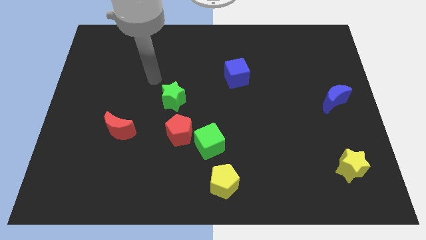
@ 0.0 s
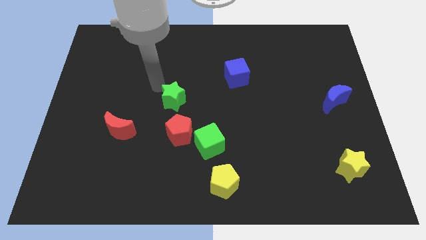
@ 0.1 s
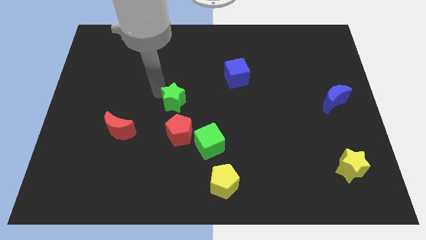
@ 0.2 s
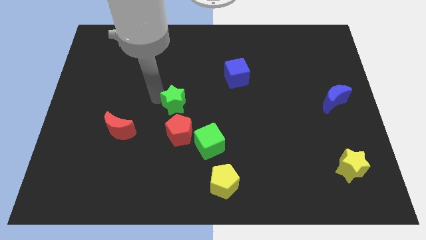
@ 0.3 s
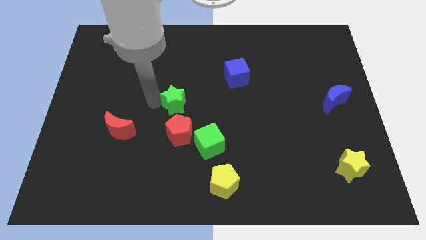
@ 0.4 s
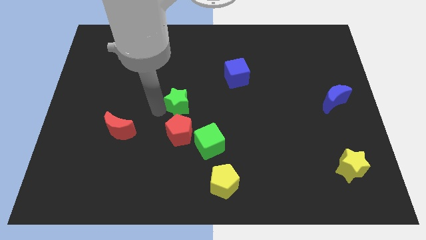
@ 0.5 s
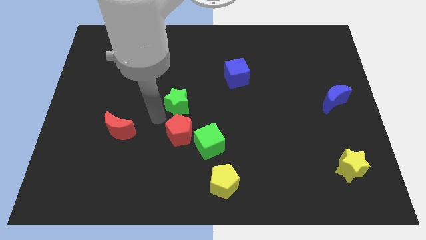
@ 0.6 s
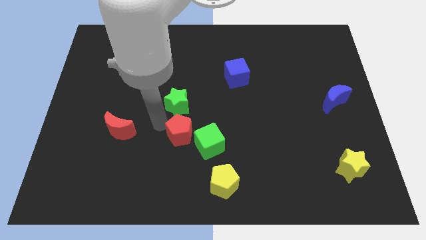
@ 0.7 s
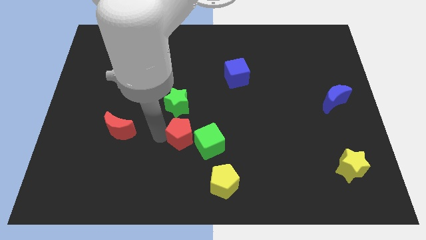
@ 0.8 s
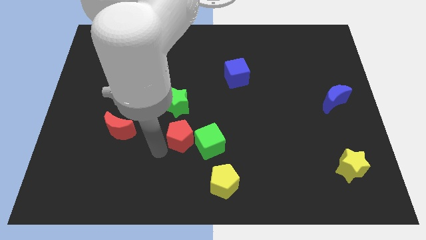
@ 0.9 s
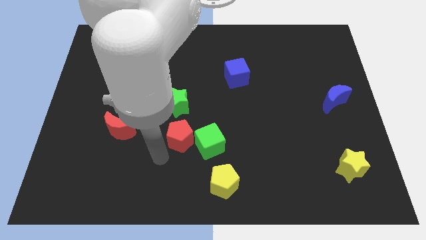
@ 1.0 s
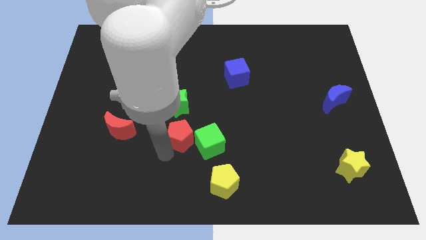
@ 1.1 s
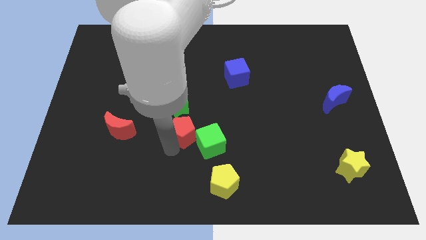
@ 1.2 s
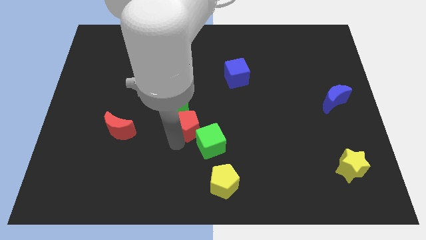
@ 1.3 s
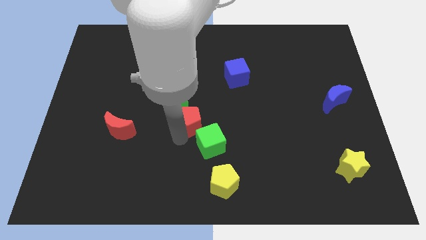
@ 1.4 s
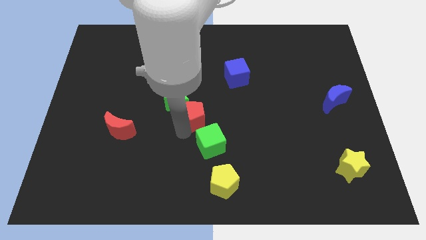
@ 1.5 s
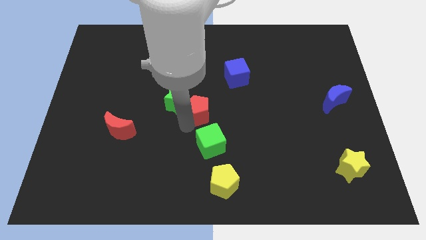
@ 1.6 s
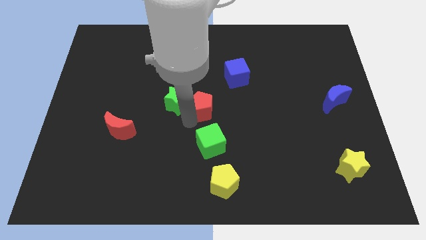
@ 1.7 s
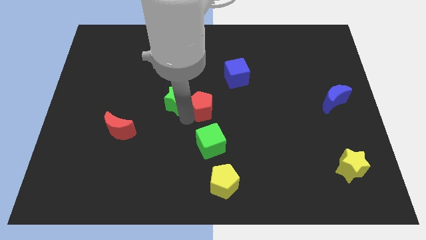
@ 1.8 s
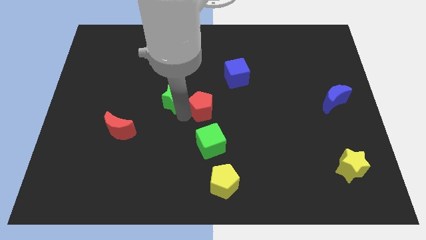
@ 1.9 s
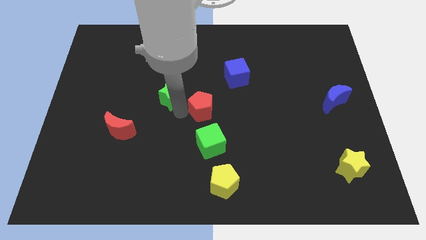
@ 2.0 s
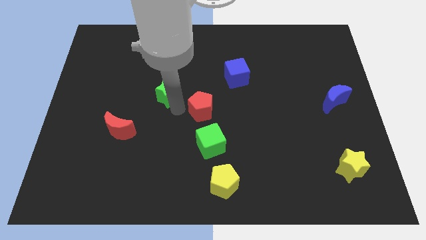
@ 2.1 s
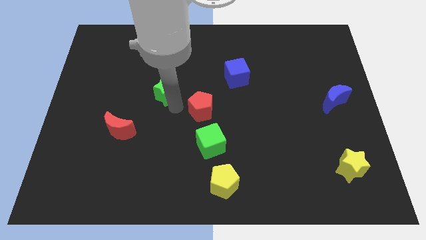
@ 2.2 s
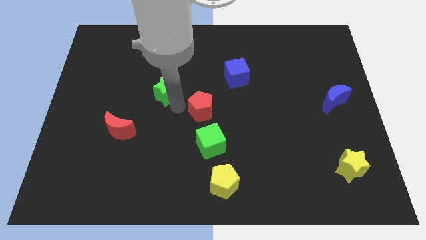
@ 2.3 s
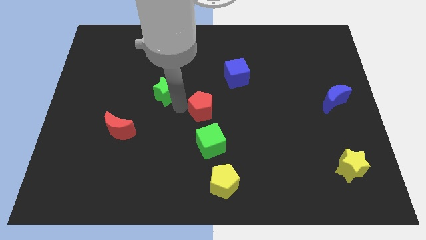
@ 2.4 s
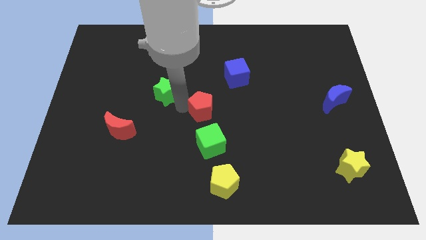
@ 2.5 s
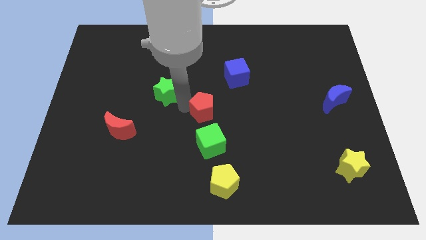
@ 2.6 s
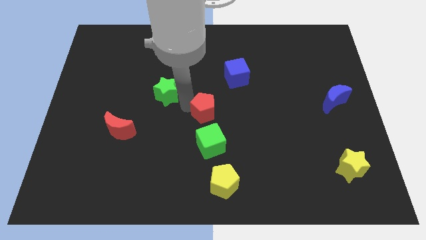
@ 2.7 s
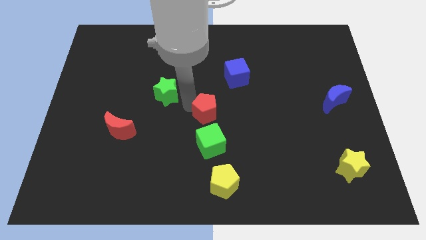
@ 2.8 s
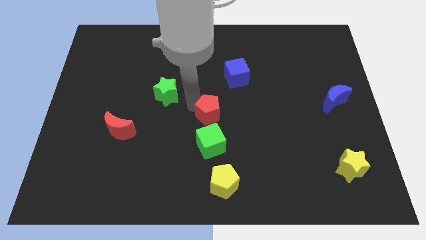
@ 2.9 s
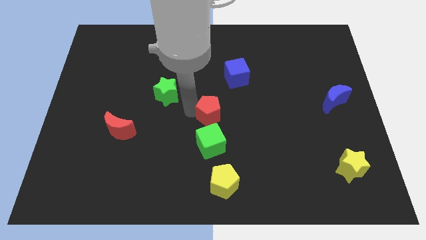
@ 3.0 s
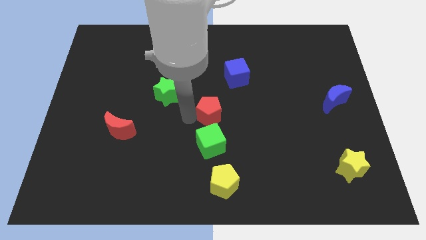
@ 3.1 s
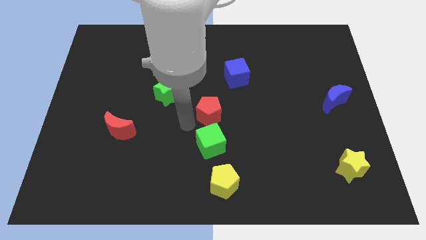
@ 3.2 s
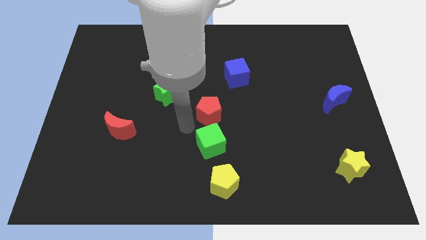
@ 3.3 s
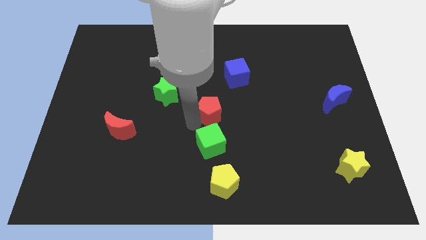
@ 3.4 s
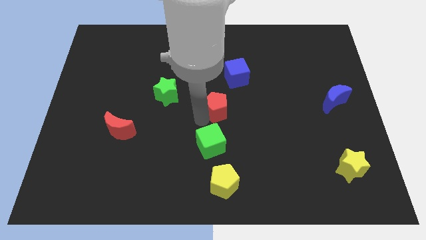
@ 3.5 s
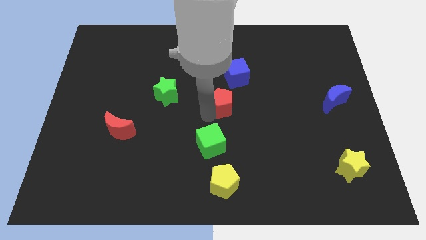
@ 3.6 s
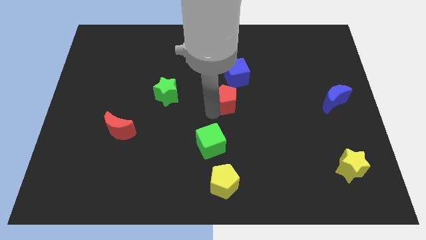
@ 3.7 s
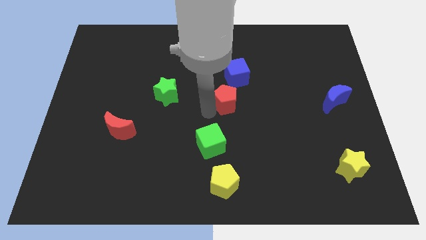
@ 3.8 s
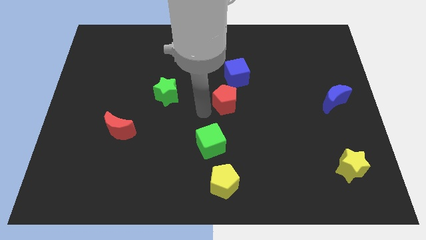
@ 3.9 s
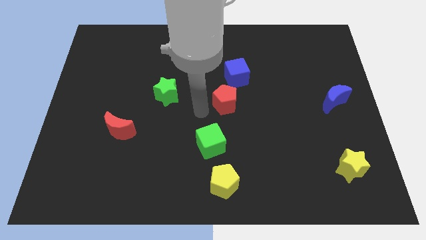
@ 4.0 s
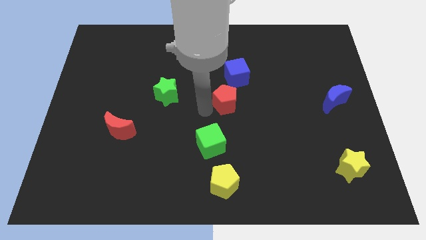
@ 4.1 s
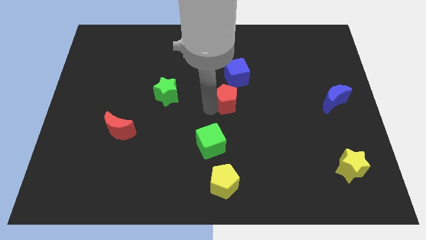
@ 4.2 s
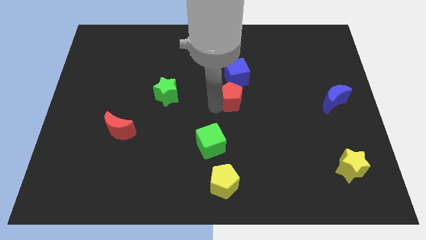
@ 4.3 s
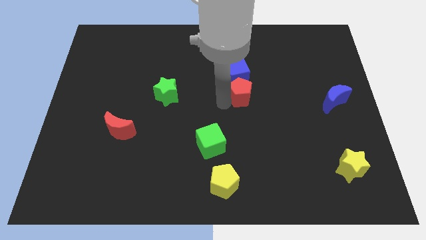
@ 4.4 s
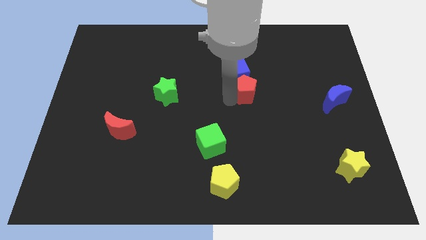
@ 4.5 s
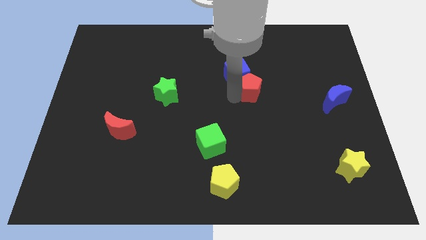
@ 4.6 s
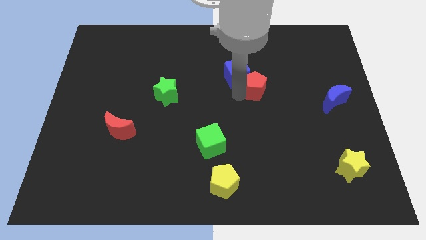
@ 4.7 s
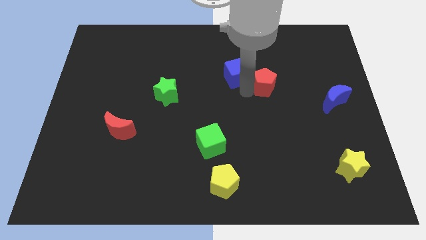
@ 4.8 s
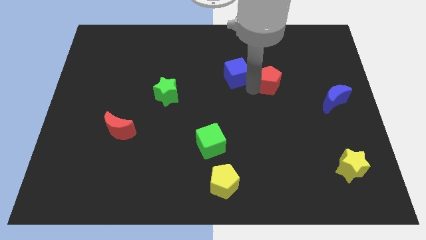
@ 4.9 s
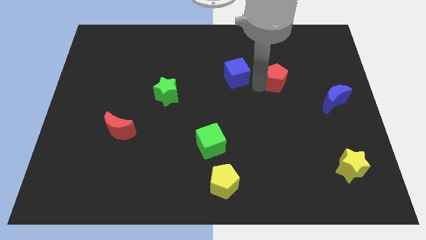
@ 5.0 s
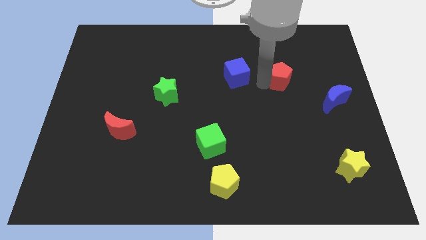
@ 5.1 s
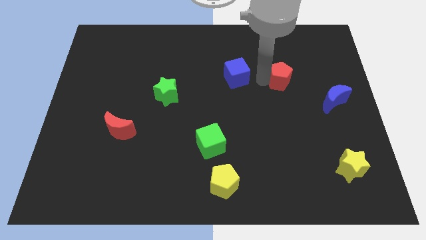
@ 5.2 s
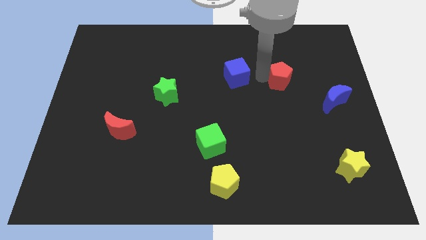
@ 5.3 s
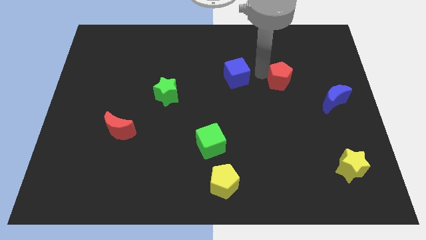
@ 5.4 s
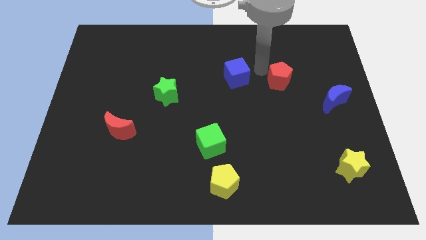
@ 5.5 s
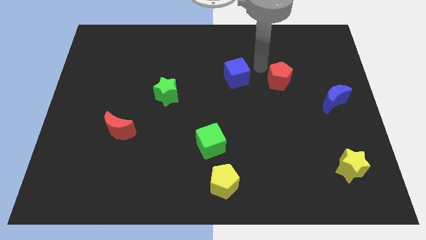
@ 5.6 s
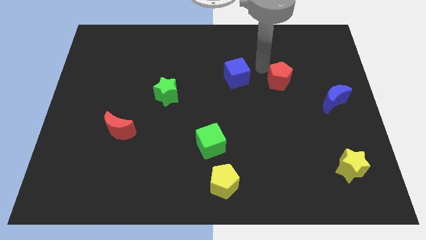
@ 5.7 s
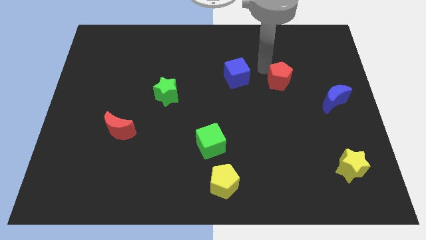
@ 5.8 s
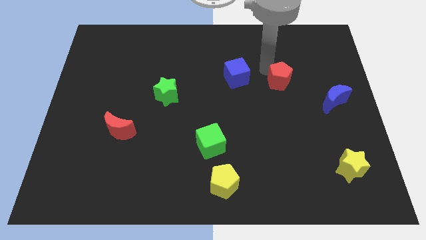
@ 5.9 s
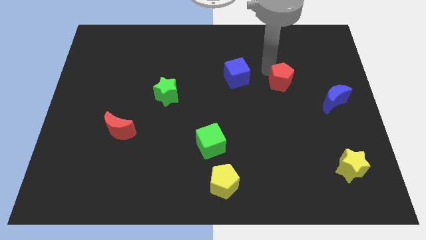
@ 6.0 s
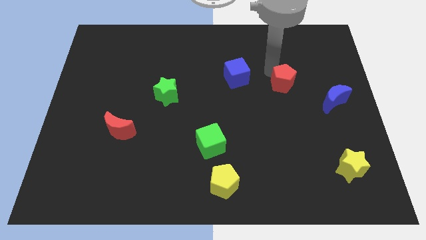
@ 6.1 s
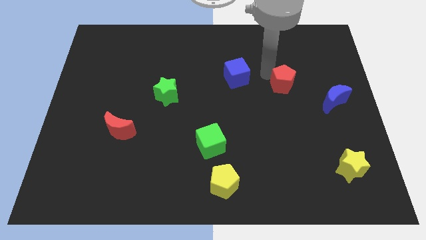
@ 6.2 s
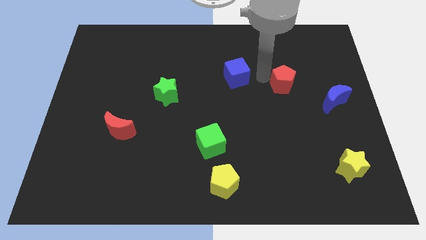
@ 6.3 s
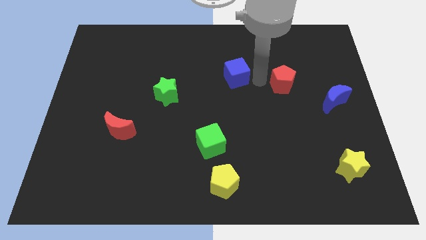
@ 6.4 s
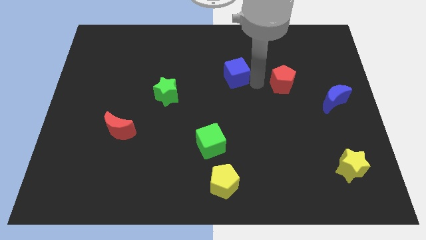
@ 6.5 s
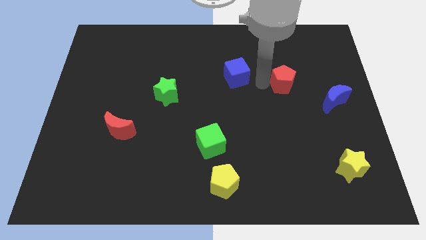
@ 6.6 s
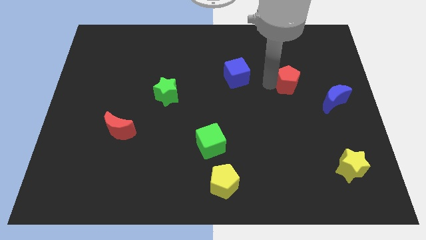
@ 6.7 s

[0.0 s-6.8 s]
slide the red pentagon to the top left side of the blue moon

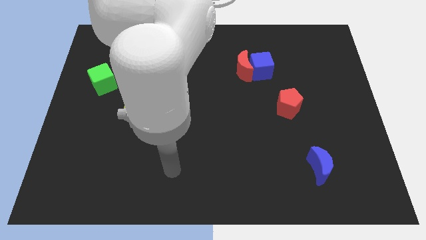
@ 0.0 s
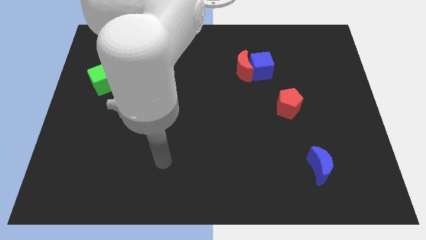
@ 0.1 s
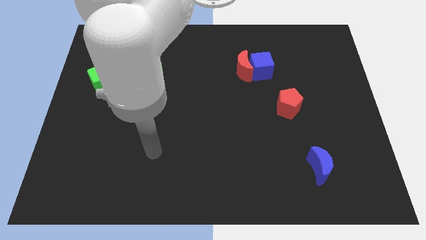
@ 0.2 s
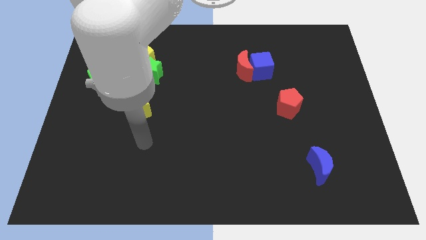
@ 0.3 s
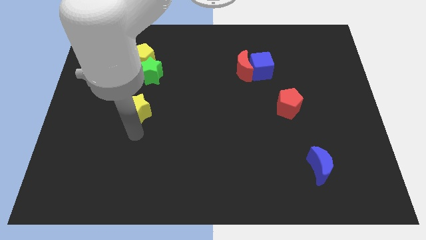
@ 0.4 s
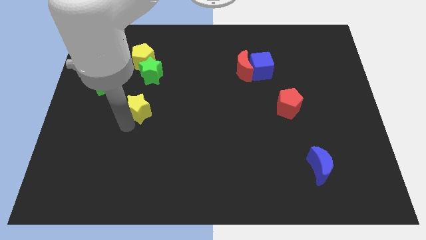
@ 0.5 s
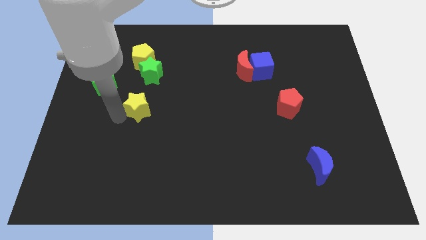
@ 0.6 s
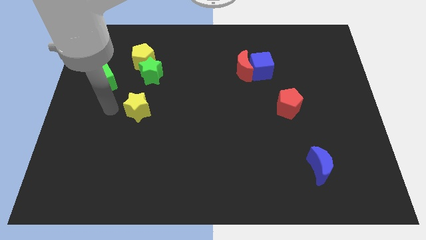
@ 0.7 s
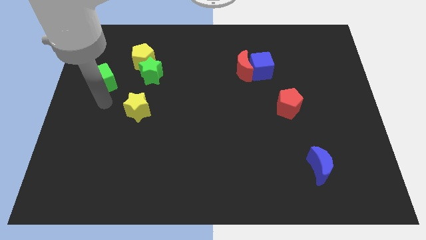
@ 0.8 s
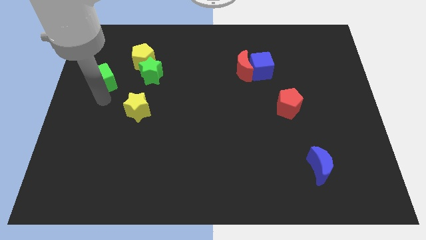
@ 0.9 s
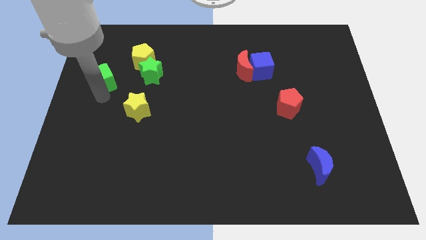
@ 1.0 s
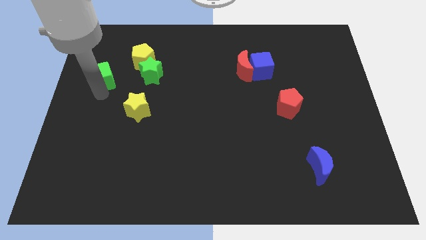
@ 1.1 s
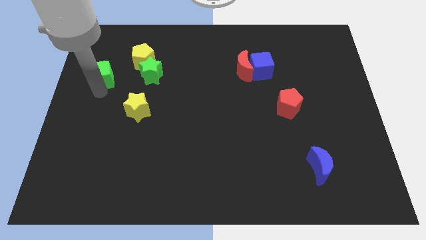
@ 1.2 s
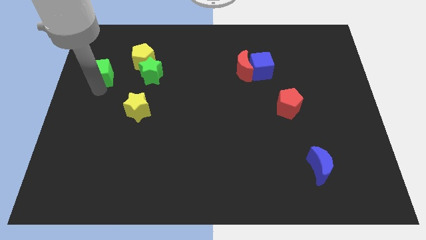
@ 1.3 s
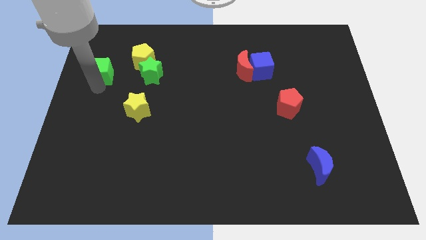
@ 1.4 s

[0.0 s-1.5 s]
push the green cube just left of the yellow pentagon
